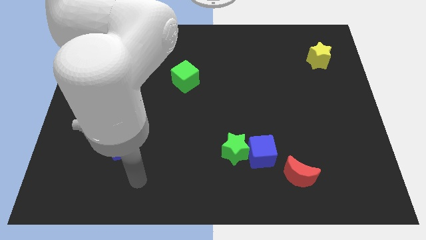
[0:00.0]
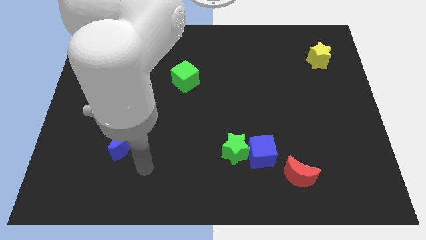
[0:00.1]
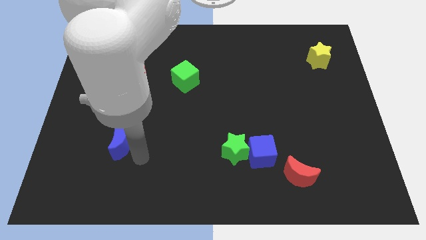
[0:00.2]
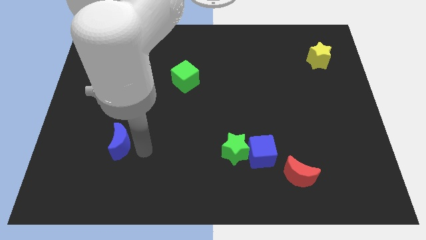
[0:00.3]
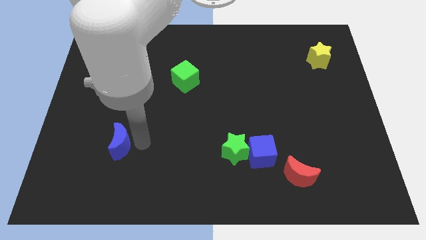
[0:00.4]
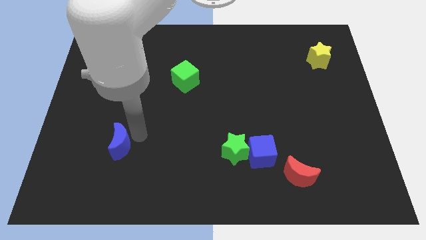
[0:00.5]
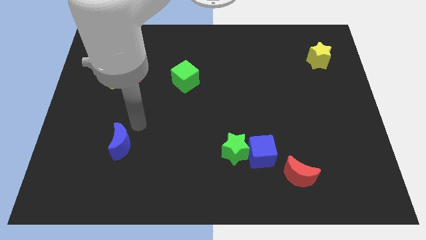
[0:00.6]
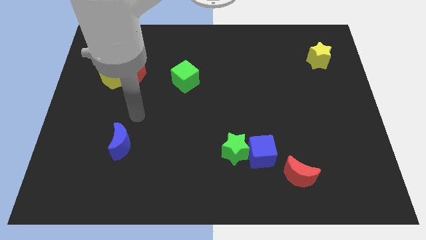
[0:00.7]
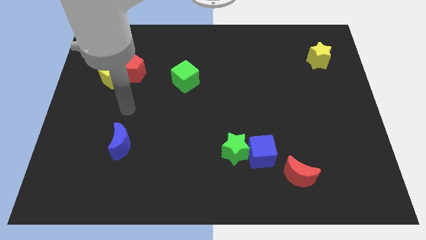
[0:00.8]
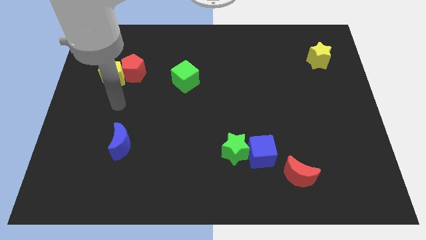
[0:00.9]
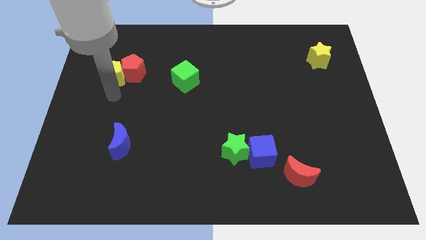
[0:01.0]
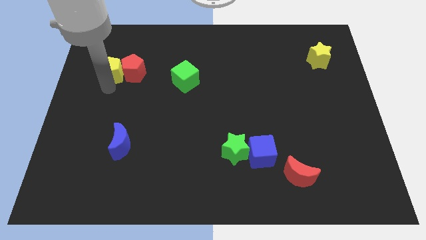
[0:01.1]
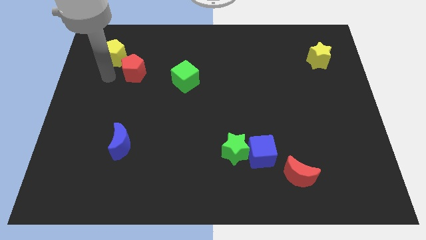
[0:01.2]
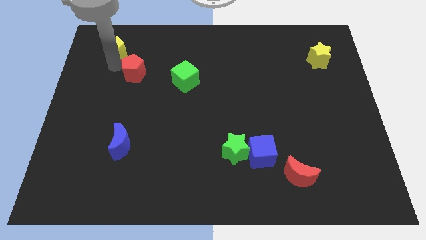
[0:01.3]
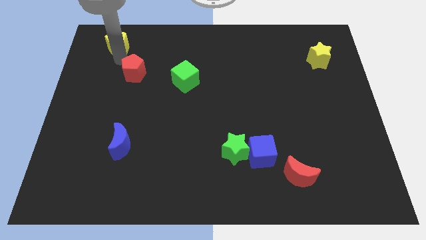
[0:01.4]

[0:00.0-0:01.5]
move the red pentagon away from the yellow pentagon

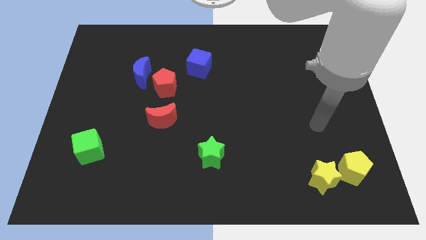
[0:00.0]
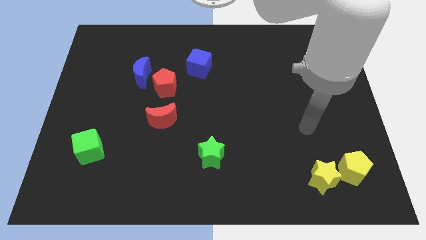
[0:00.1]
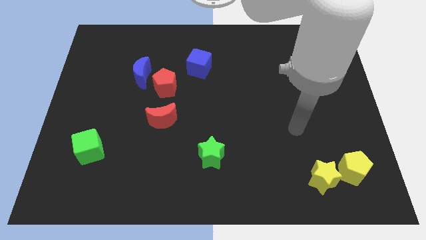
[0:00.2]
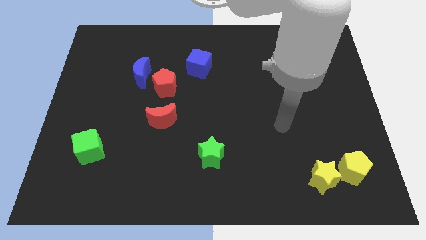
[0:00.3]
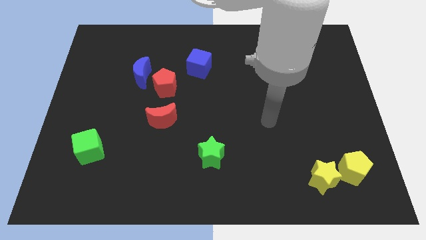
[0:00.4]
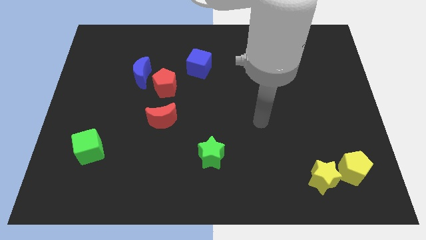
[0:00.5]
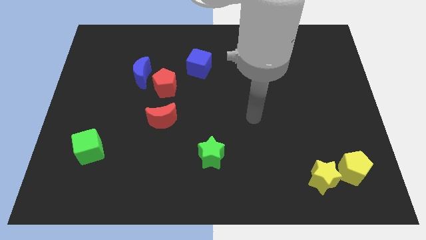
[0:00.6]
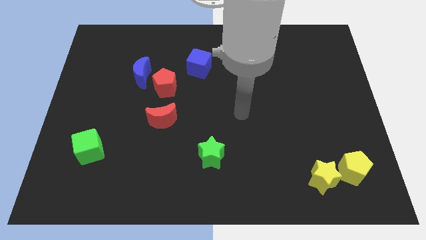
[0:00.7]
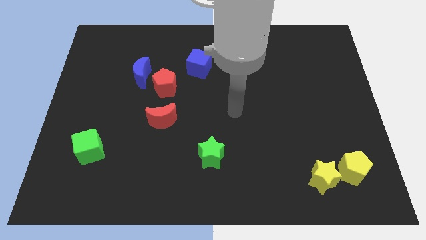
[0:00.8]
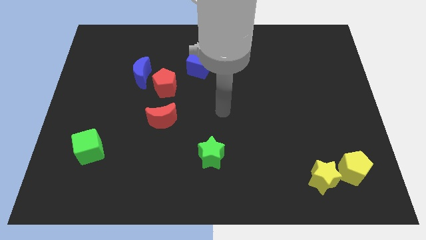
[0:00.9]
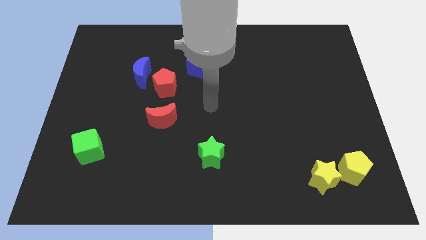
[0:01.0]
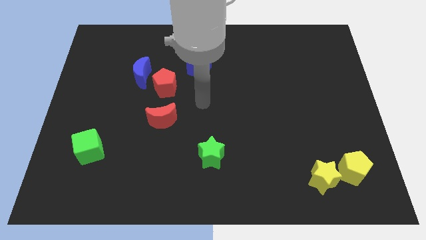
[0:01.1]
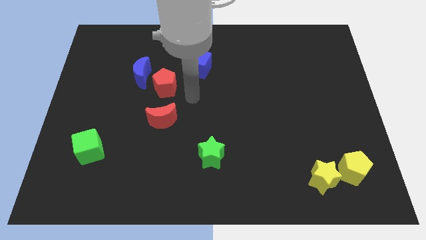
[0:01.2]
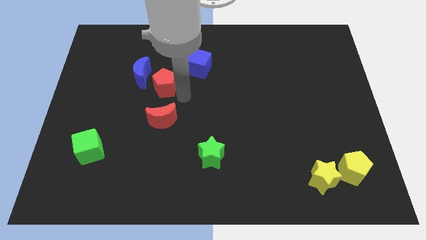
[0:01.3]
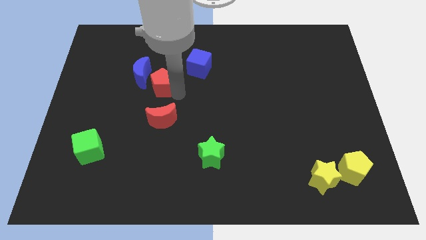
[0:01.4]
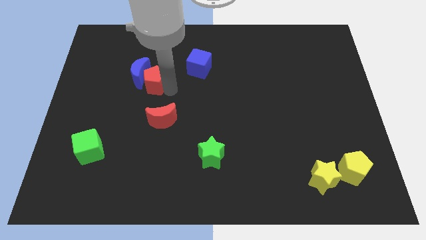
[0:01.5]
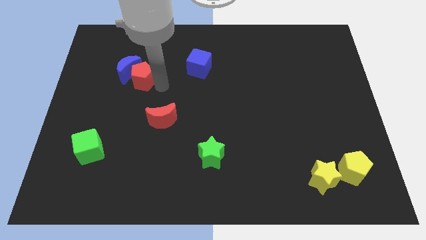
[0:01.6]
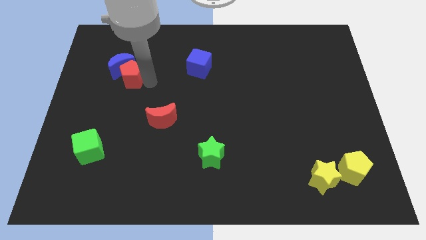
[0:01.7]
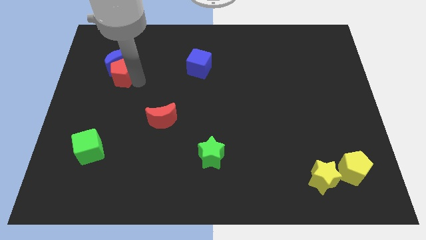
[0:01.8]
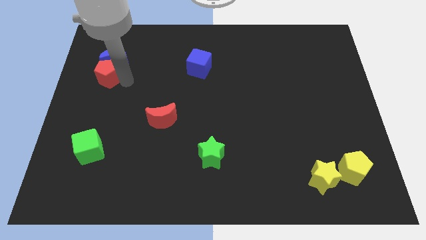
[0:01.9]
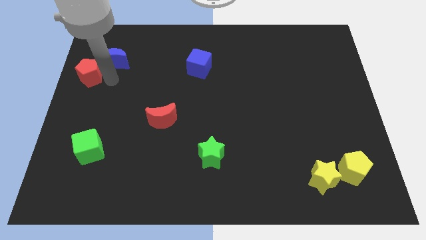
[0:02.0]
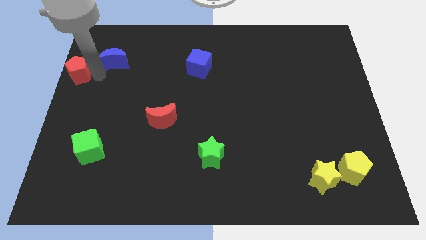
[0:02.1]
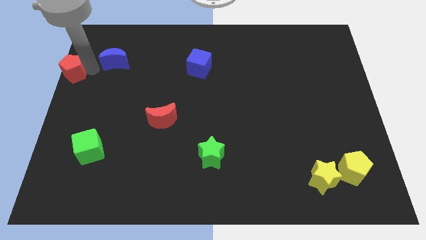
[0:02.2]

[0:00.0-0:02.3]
separate the blue moon from the red pentagon

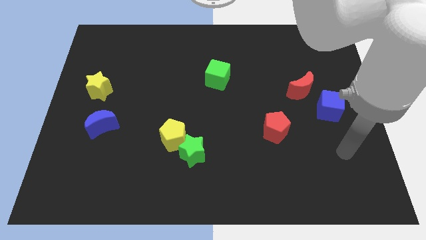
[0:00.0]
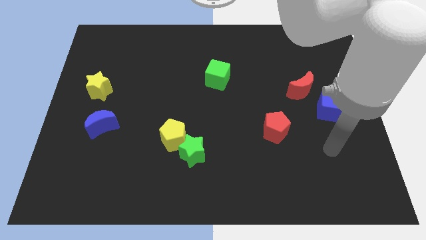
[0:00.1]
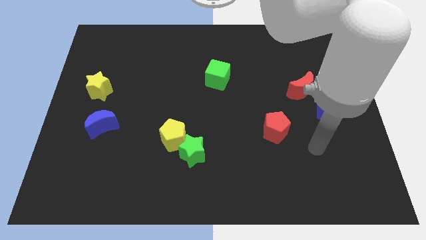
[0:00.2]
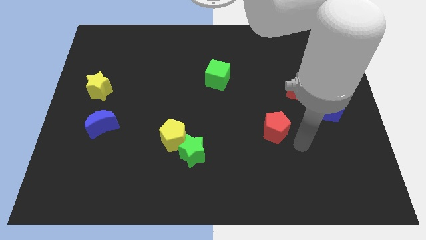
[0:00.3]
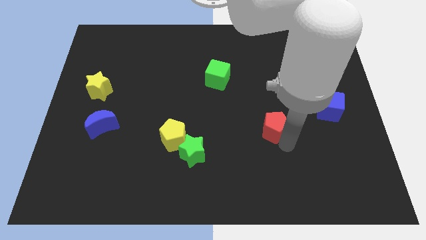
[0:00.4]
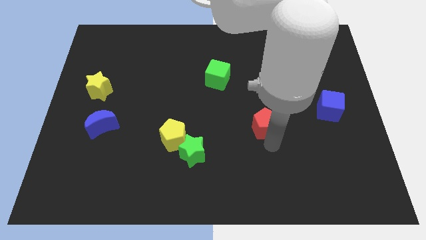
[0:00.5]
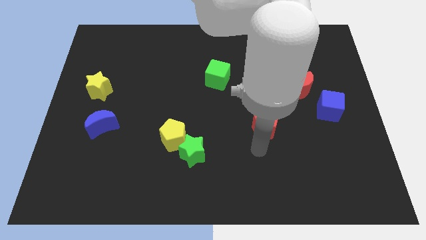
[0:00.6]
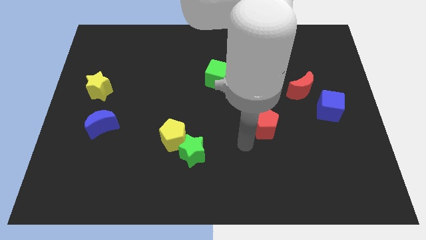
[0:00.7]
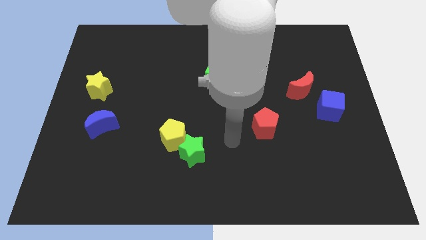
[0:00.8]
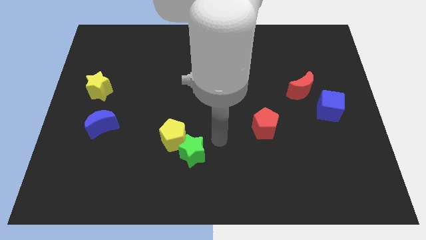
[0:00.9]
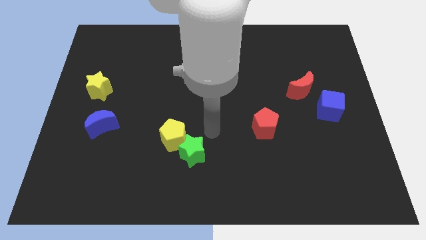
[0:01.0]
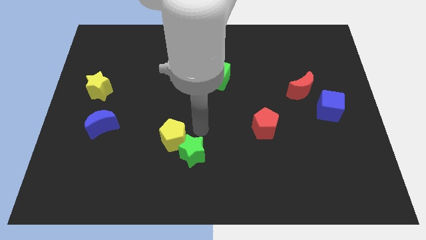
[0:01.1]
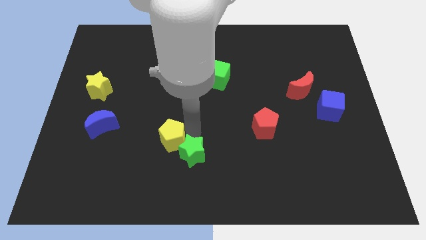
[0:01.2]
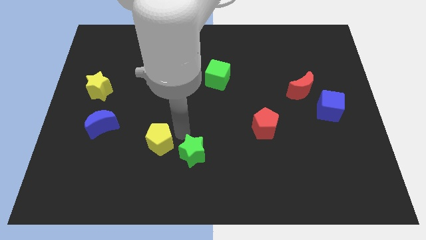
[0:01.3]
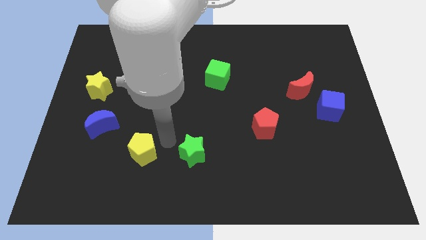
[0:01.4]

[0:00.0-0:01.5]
pull the green star apart from the yellow pentagon

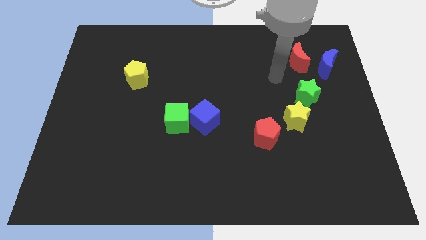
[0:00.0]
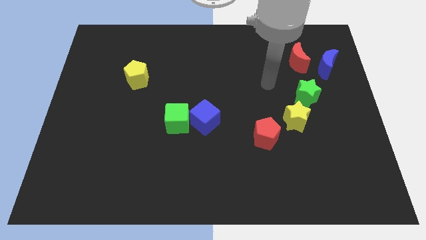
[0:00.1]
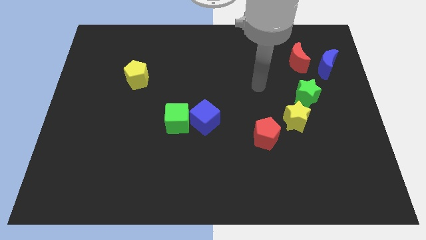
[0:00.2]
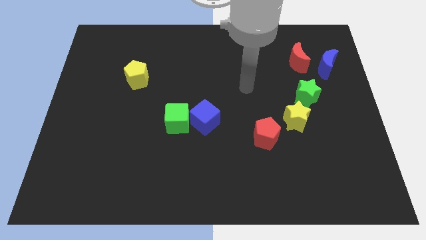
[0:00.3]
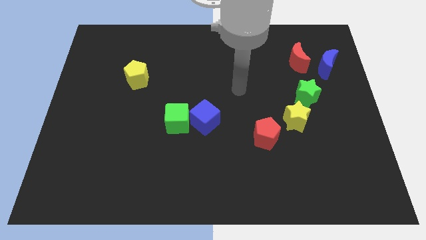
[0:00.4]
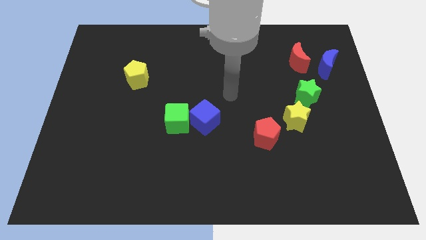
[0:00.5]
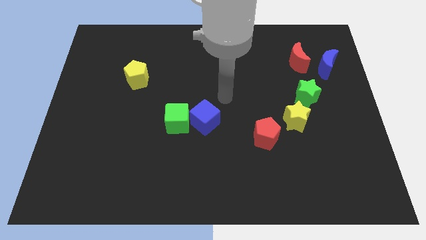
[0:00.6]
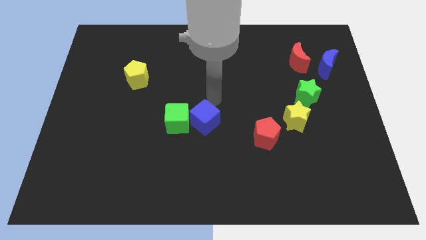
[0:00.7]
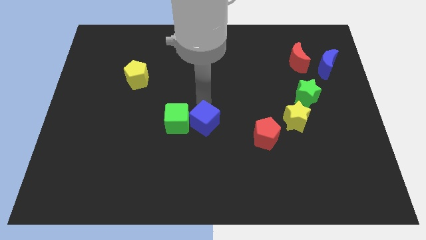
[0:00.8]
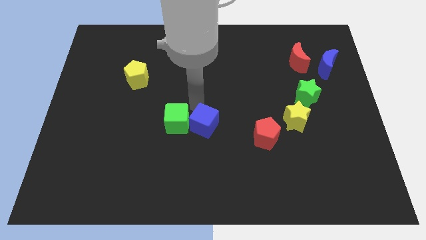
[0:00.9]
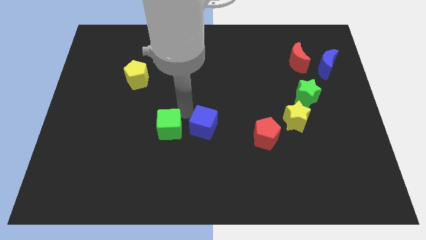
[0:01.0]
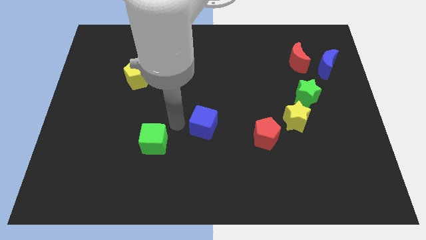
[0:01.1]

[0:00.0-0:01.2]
separate the blue cube from the green cube

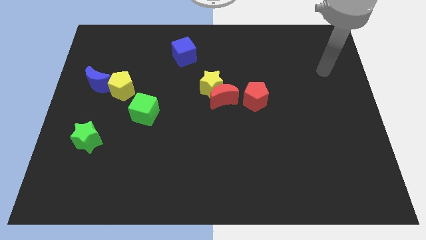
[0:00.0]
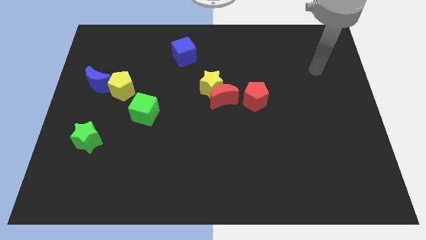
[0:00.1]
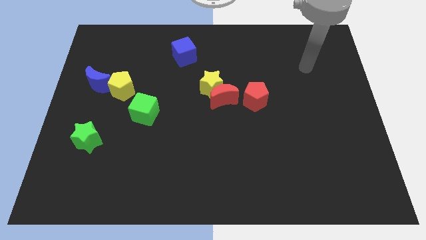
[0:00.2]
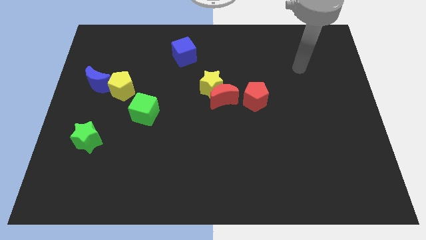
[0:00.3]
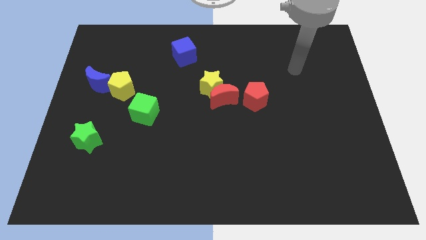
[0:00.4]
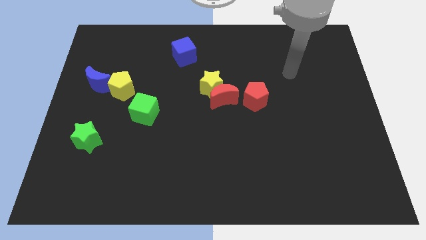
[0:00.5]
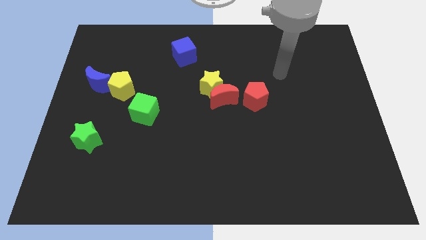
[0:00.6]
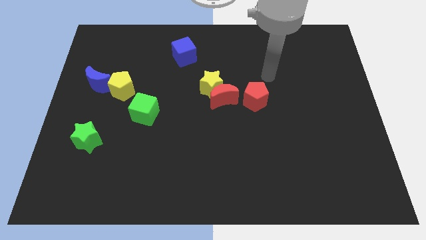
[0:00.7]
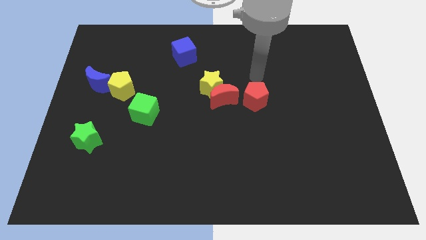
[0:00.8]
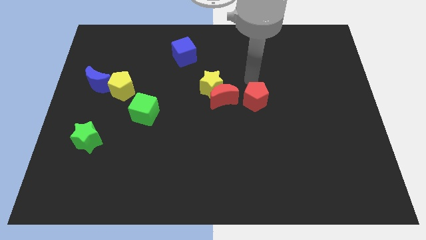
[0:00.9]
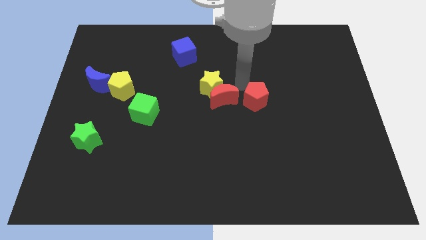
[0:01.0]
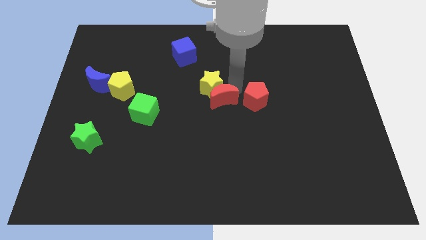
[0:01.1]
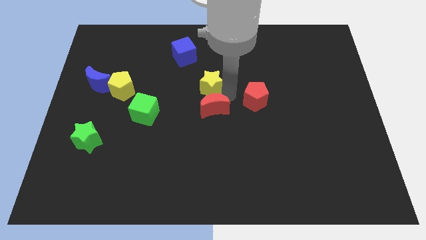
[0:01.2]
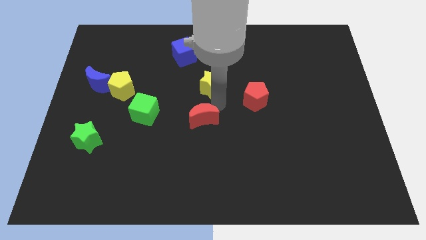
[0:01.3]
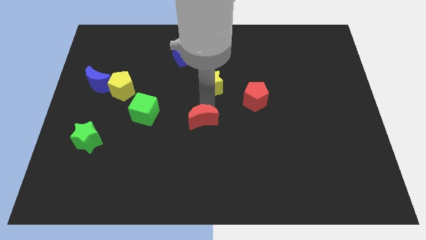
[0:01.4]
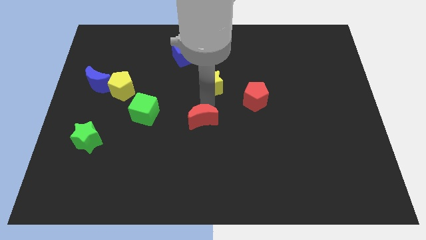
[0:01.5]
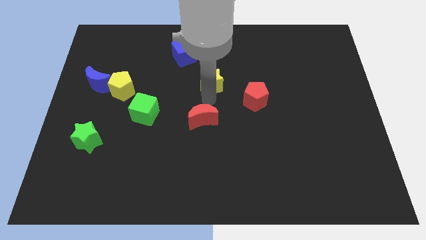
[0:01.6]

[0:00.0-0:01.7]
separate the yellow star from the red moon

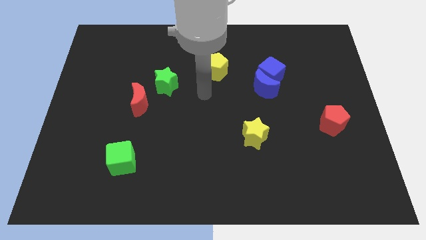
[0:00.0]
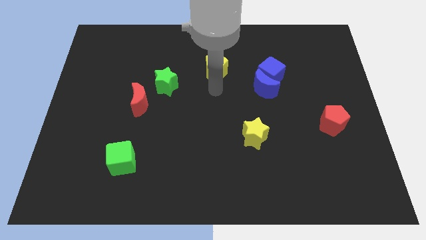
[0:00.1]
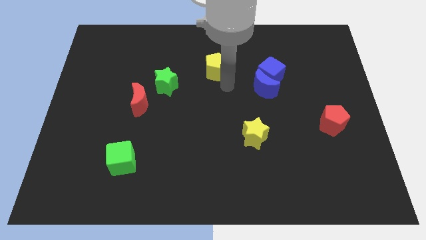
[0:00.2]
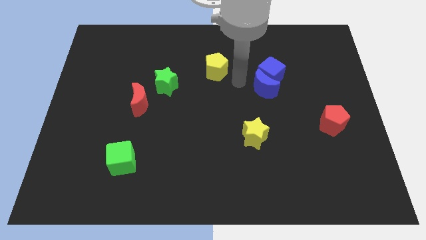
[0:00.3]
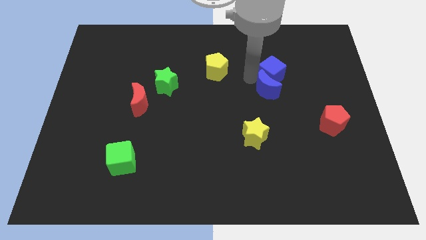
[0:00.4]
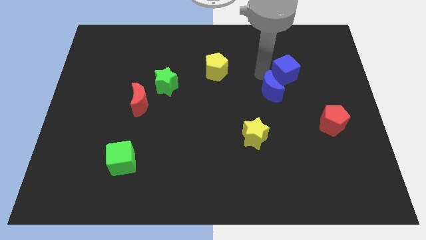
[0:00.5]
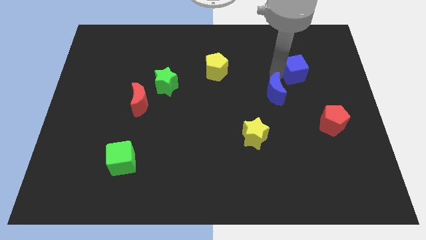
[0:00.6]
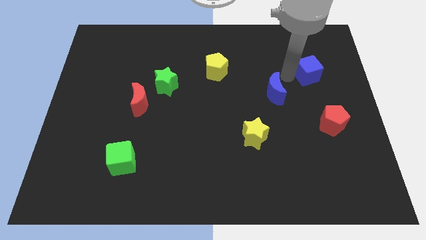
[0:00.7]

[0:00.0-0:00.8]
separate the blue moon from the blue cube

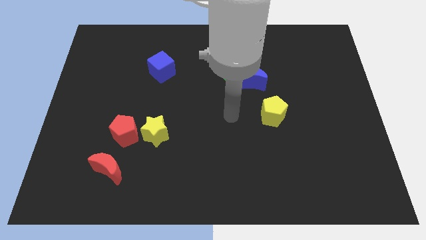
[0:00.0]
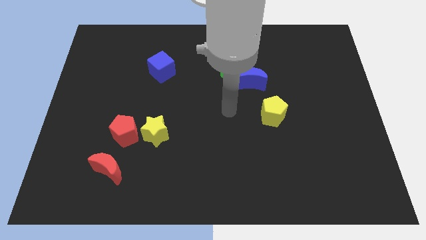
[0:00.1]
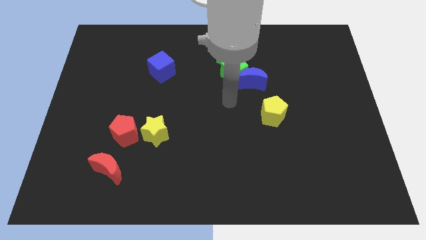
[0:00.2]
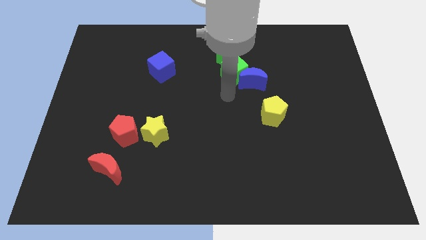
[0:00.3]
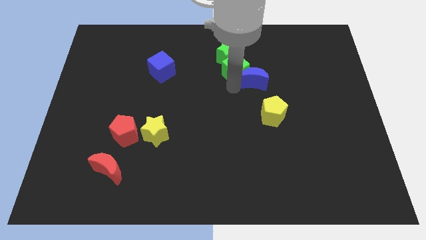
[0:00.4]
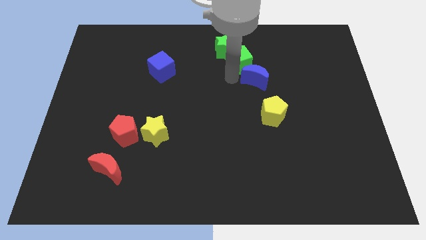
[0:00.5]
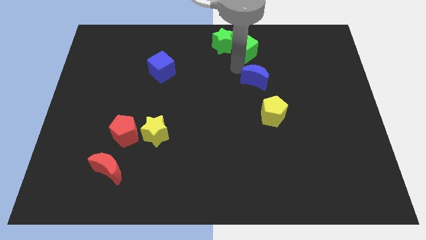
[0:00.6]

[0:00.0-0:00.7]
move the blue moon away from the green cube
